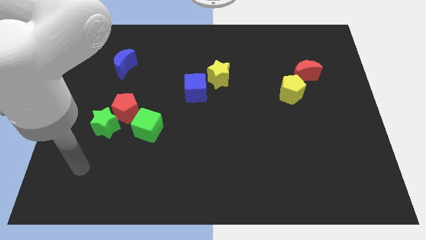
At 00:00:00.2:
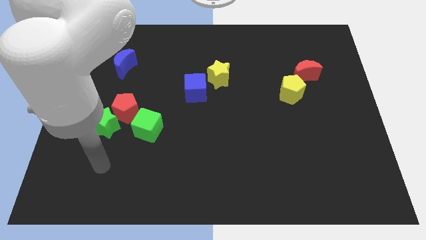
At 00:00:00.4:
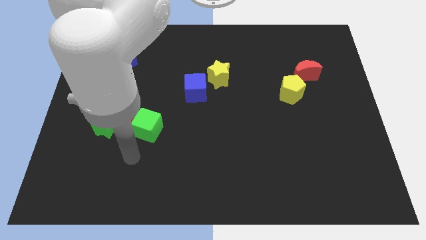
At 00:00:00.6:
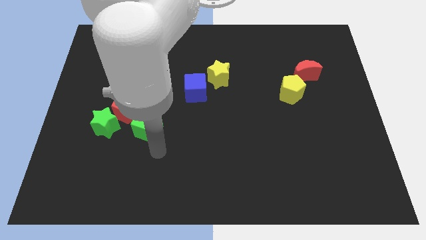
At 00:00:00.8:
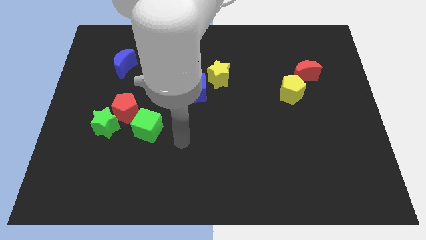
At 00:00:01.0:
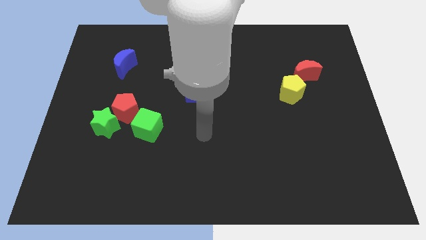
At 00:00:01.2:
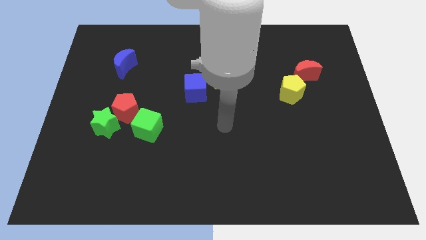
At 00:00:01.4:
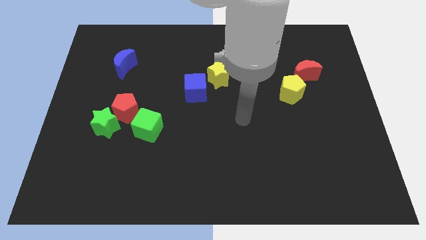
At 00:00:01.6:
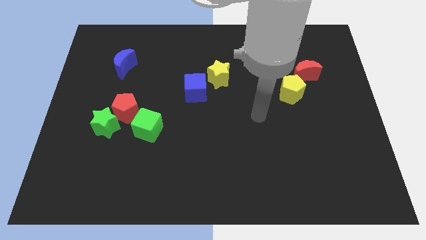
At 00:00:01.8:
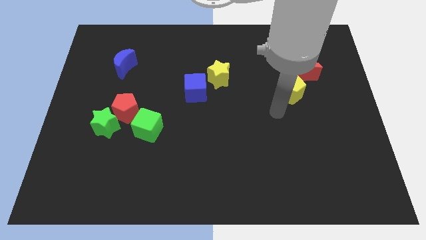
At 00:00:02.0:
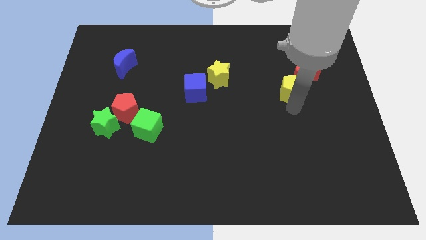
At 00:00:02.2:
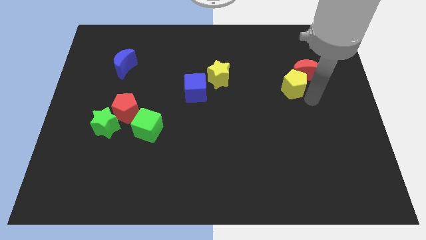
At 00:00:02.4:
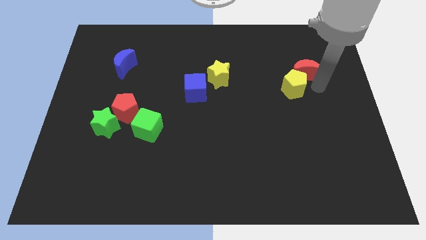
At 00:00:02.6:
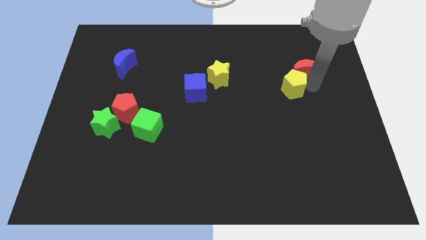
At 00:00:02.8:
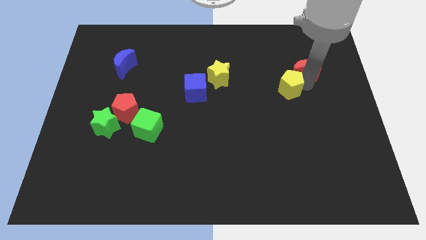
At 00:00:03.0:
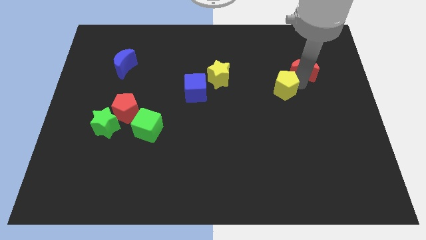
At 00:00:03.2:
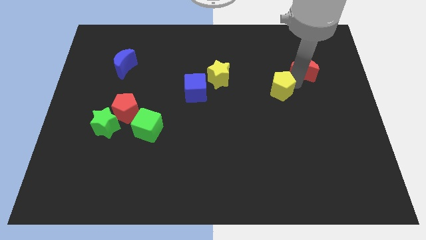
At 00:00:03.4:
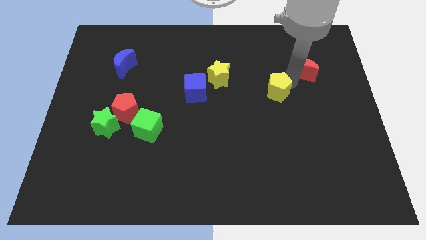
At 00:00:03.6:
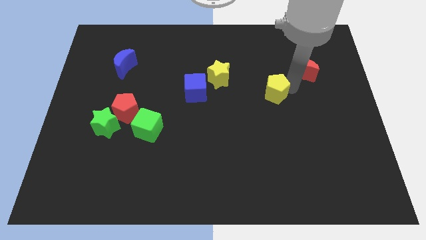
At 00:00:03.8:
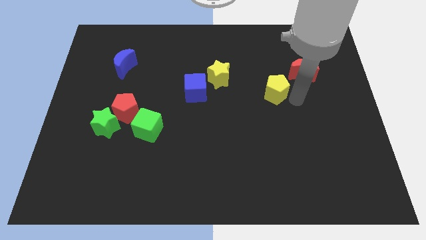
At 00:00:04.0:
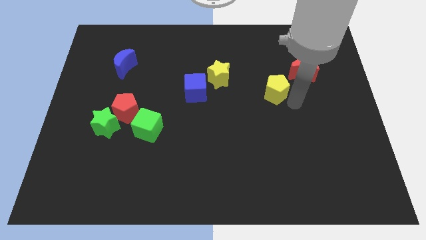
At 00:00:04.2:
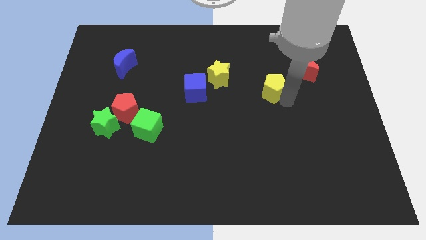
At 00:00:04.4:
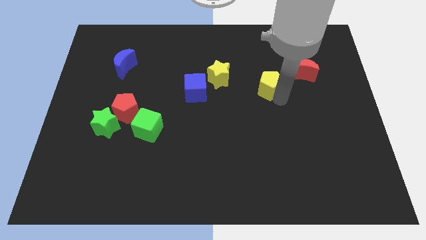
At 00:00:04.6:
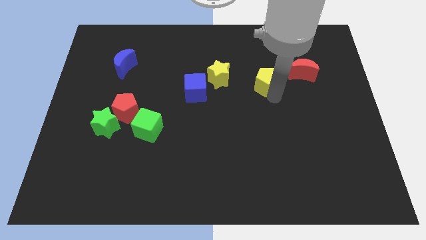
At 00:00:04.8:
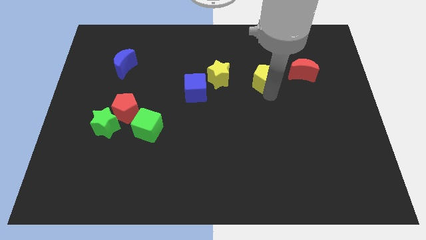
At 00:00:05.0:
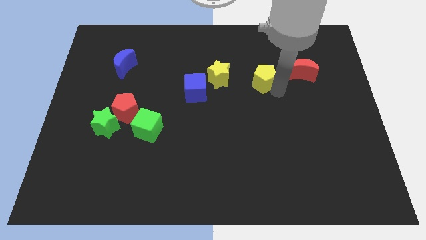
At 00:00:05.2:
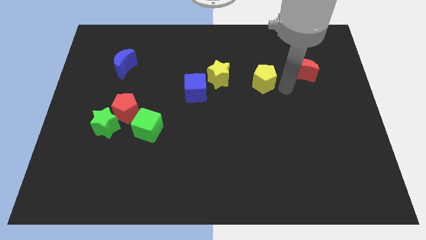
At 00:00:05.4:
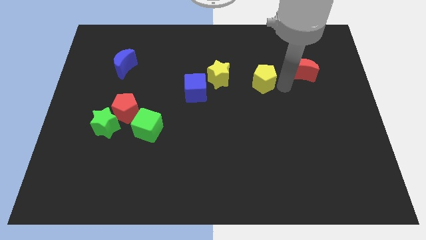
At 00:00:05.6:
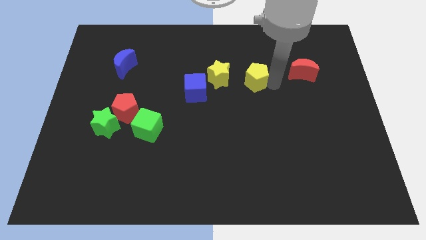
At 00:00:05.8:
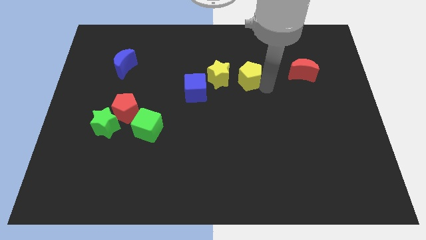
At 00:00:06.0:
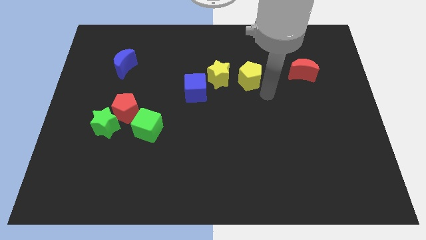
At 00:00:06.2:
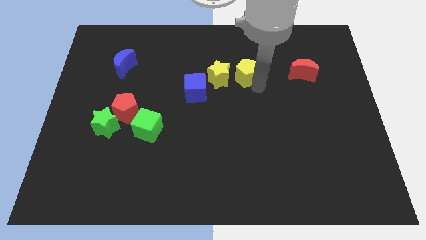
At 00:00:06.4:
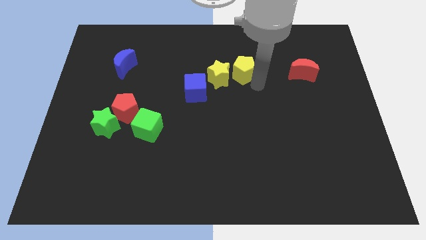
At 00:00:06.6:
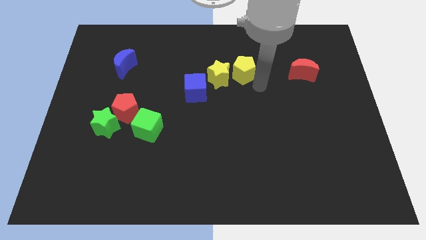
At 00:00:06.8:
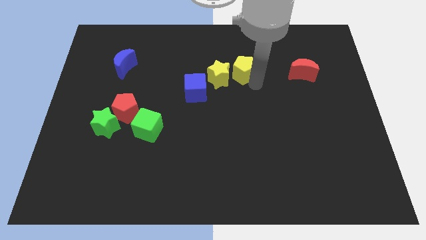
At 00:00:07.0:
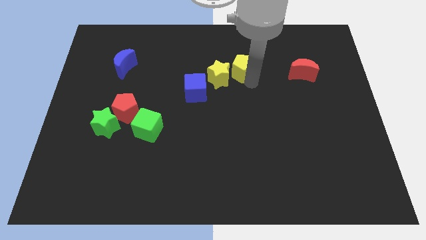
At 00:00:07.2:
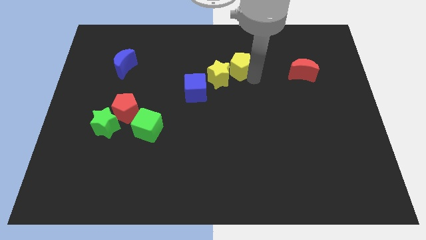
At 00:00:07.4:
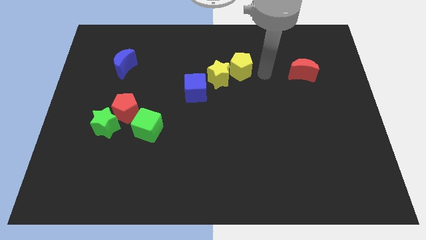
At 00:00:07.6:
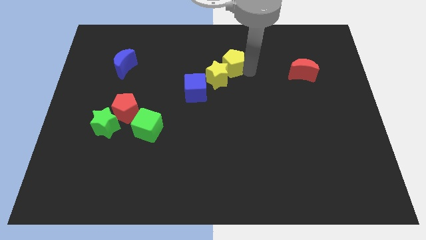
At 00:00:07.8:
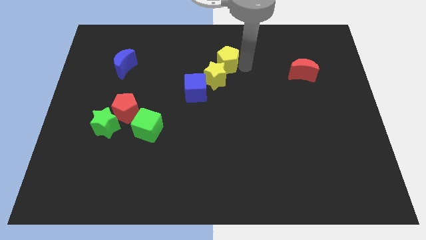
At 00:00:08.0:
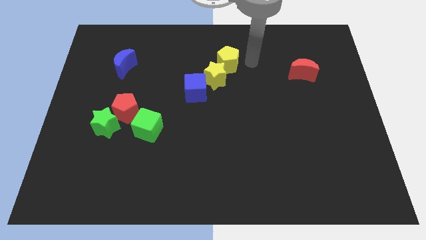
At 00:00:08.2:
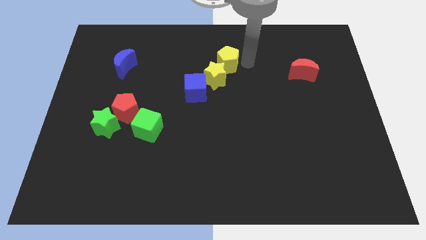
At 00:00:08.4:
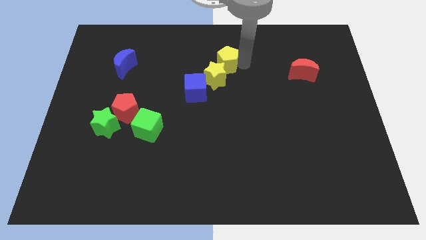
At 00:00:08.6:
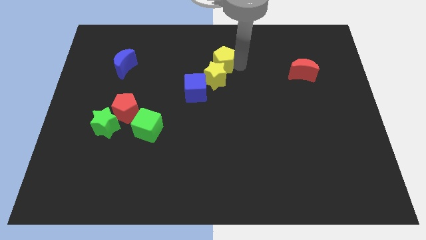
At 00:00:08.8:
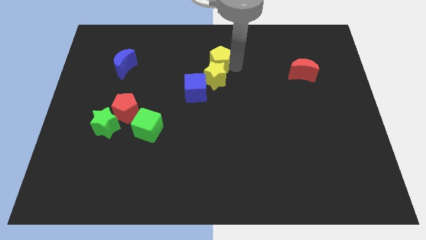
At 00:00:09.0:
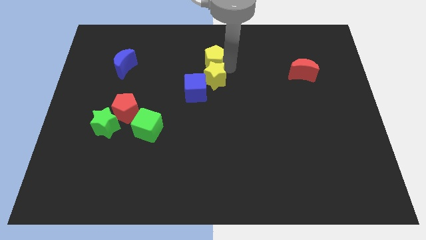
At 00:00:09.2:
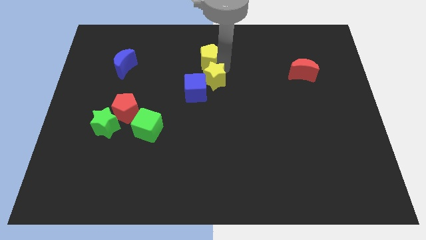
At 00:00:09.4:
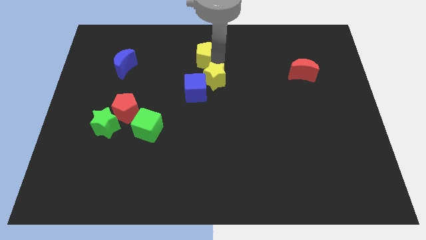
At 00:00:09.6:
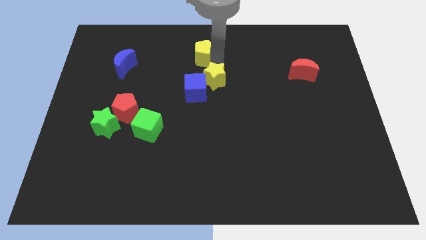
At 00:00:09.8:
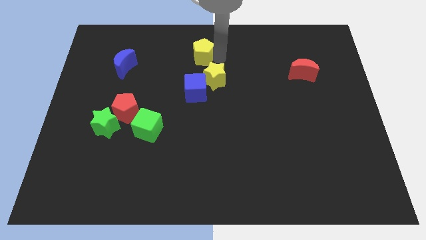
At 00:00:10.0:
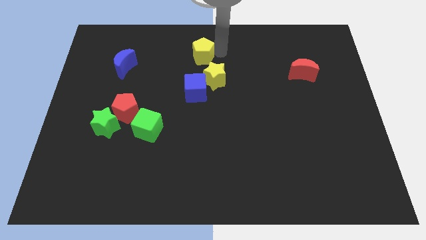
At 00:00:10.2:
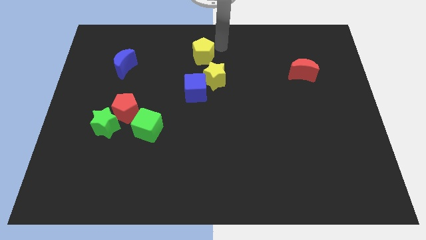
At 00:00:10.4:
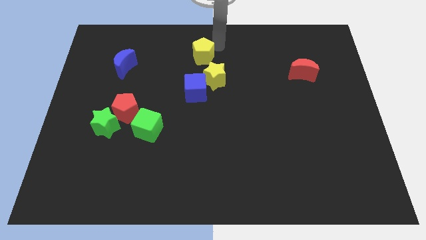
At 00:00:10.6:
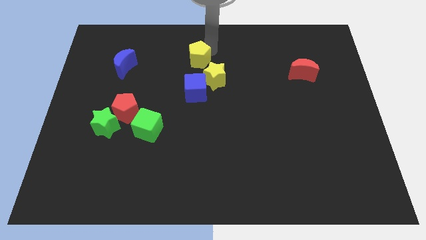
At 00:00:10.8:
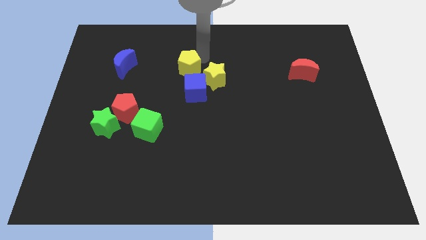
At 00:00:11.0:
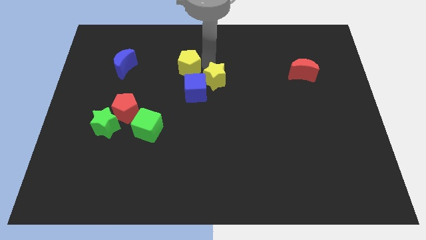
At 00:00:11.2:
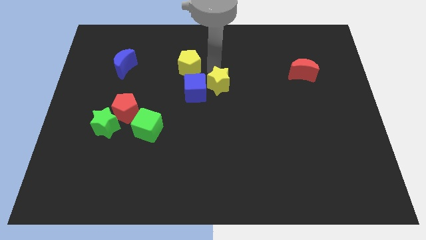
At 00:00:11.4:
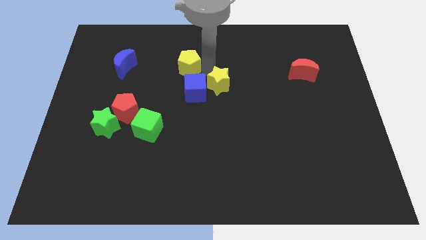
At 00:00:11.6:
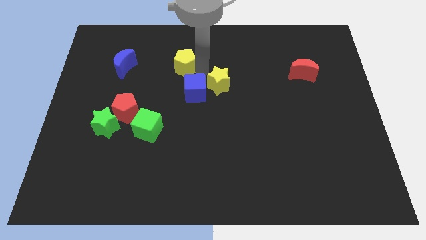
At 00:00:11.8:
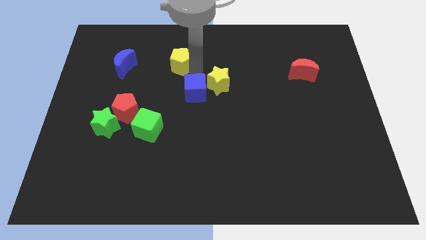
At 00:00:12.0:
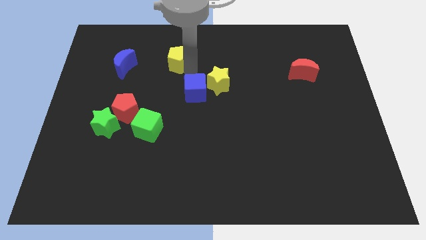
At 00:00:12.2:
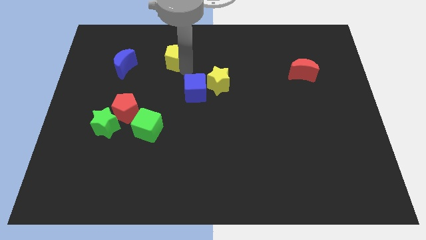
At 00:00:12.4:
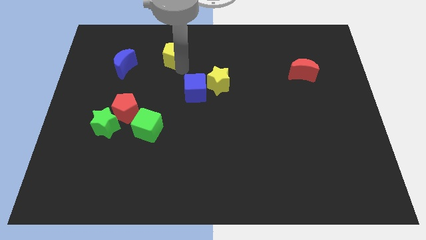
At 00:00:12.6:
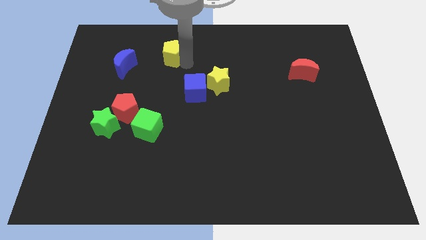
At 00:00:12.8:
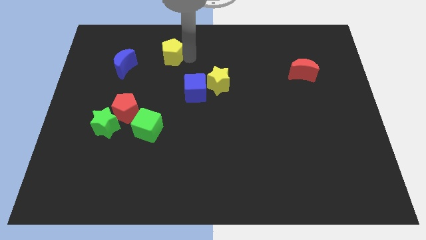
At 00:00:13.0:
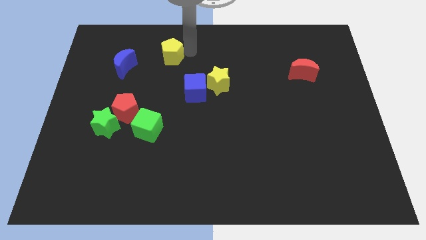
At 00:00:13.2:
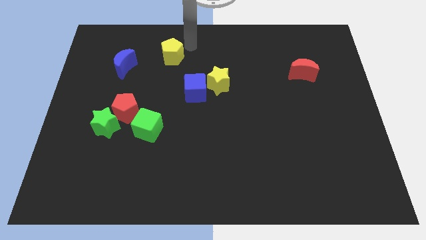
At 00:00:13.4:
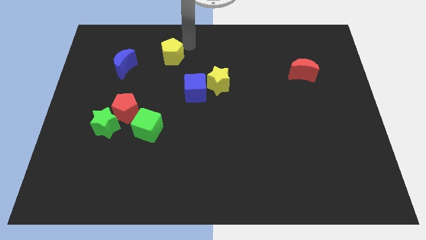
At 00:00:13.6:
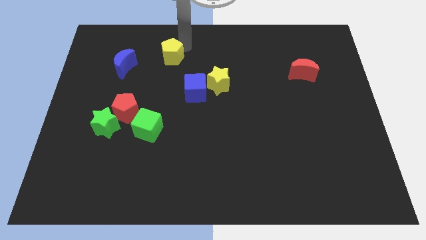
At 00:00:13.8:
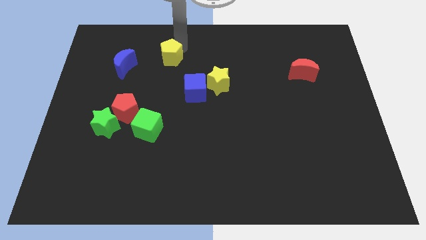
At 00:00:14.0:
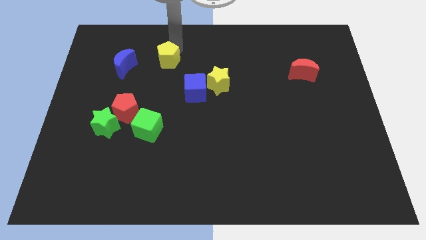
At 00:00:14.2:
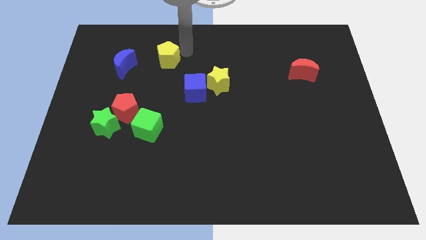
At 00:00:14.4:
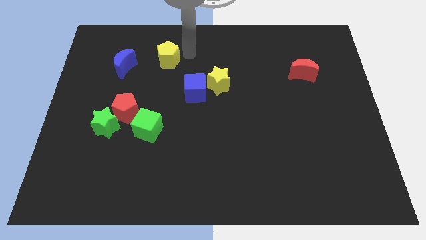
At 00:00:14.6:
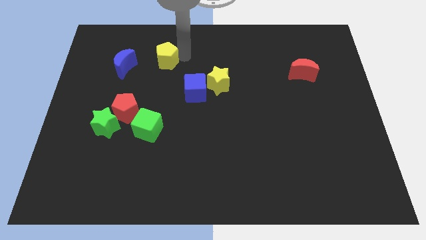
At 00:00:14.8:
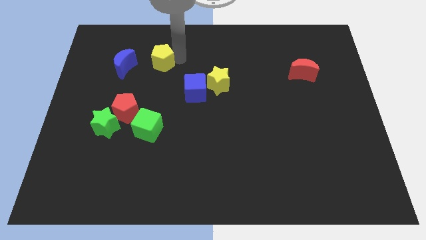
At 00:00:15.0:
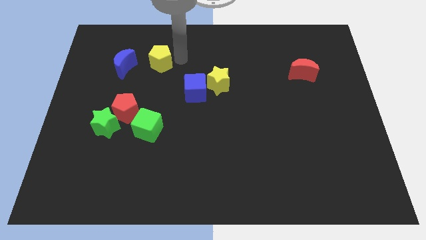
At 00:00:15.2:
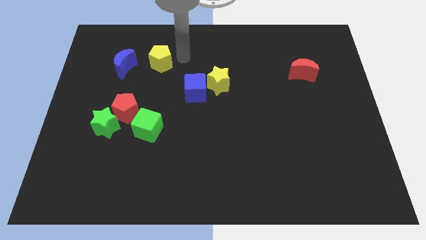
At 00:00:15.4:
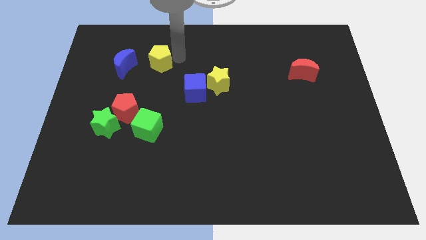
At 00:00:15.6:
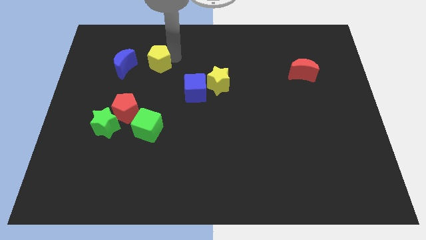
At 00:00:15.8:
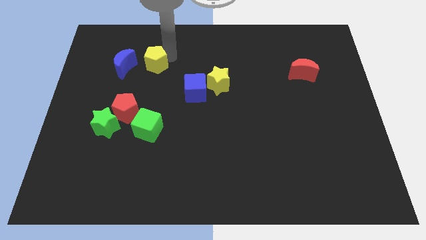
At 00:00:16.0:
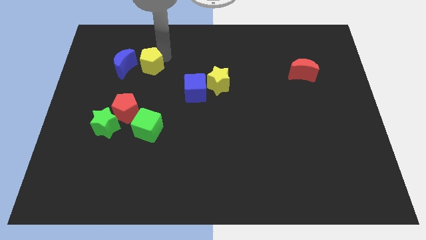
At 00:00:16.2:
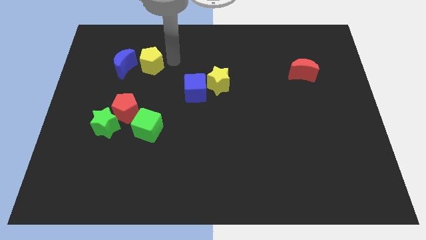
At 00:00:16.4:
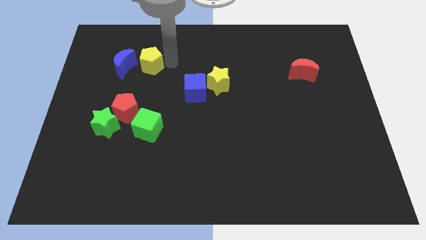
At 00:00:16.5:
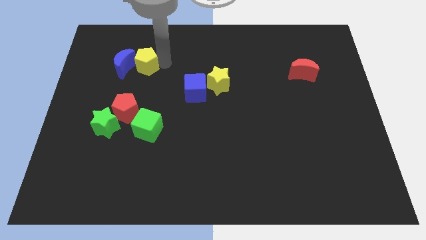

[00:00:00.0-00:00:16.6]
slide the yellow pentagon next to the blue moon
